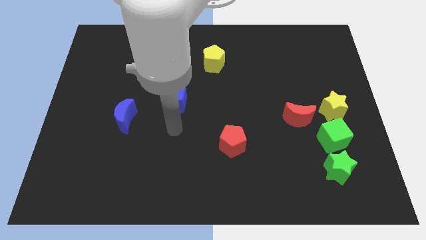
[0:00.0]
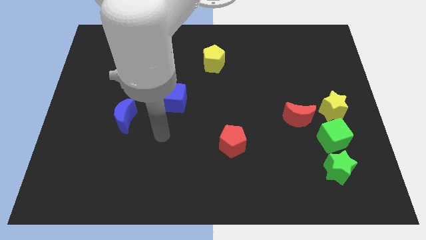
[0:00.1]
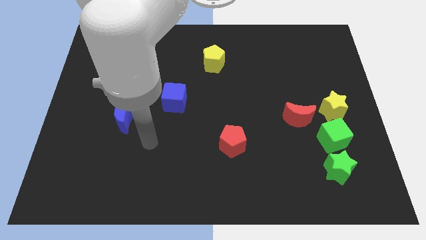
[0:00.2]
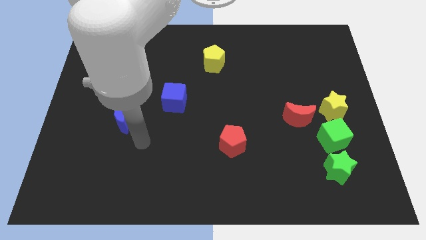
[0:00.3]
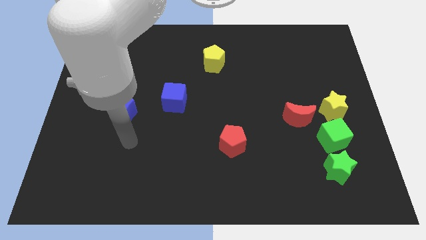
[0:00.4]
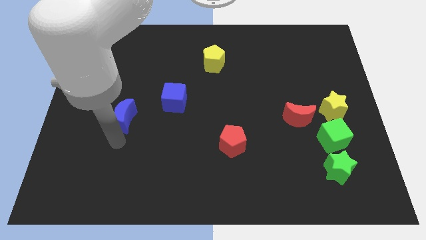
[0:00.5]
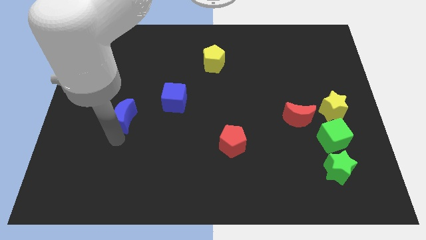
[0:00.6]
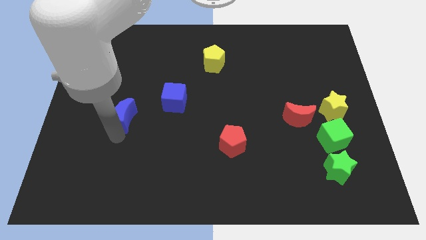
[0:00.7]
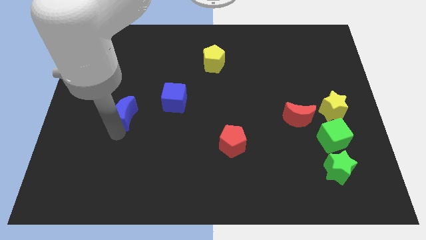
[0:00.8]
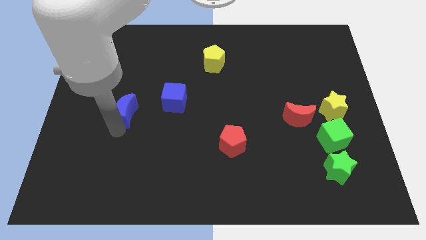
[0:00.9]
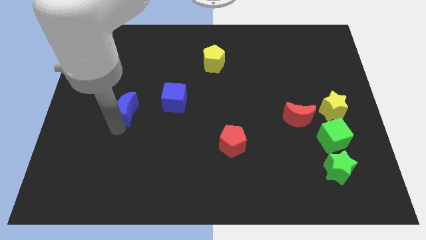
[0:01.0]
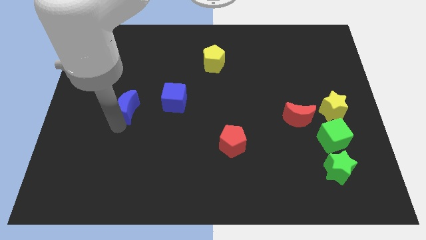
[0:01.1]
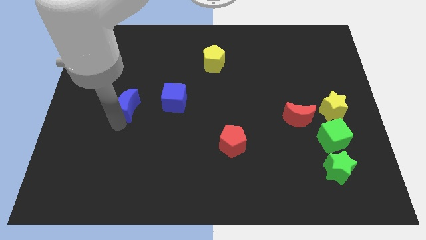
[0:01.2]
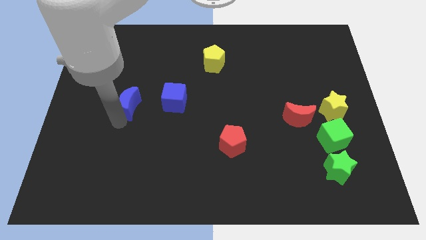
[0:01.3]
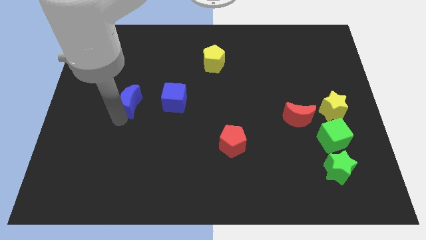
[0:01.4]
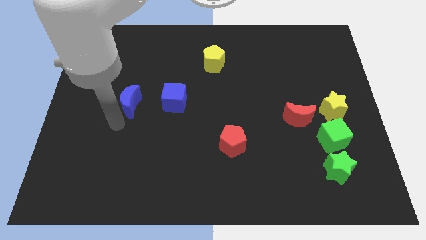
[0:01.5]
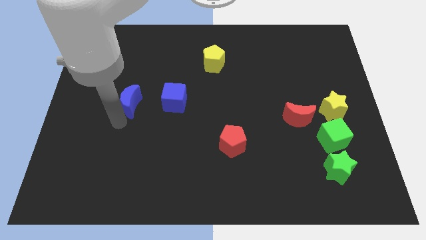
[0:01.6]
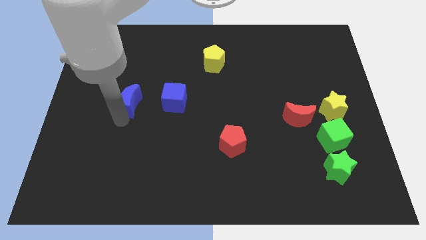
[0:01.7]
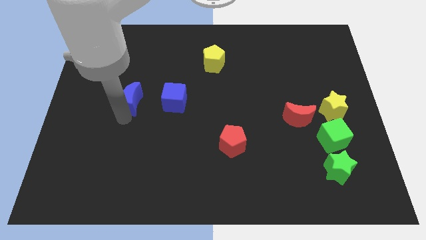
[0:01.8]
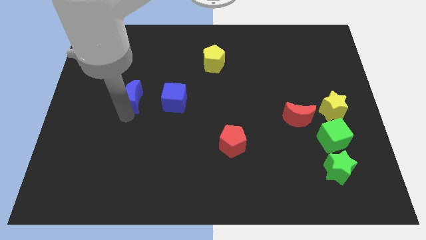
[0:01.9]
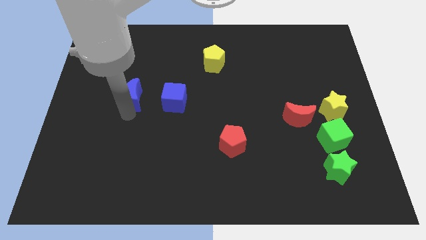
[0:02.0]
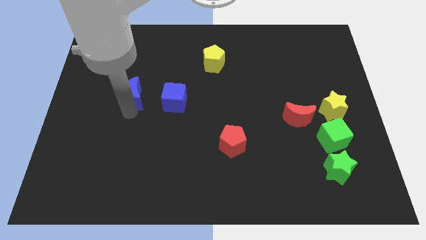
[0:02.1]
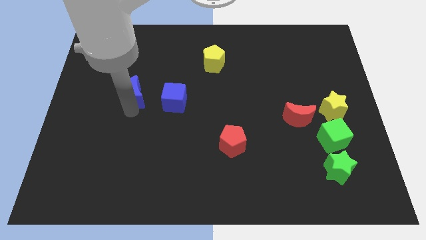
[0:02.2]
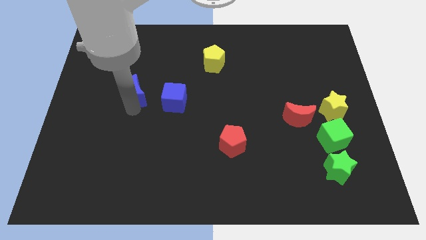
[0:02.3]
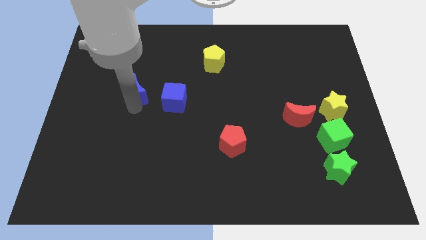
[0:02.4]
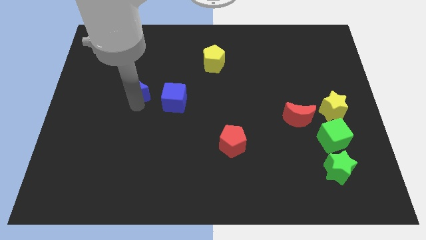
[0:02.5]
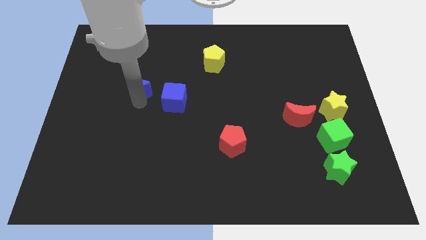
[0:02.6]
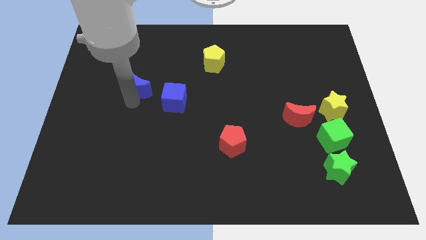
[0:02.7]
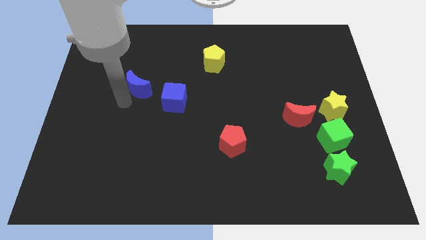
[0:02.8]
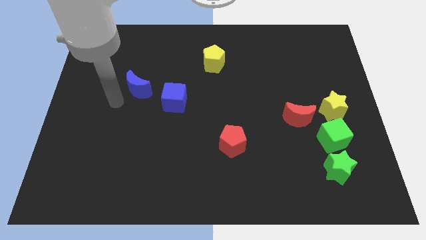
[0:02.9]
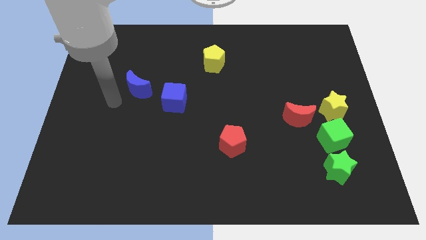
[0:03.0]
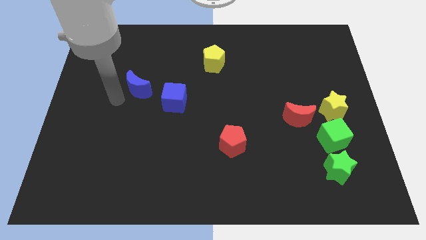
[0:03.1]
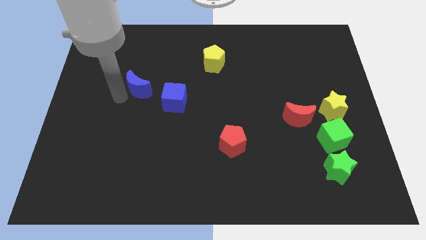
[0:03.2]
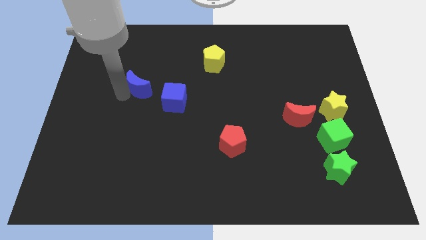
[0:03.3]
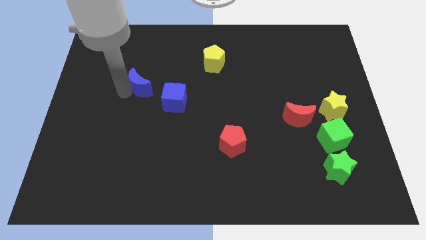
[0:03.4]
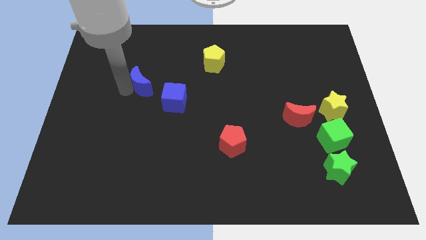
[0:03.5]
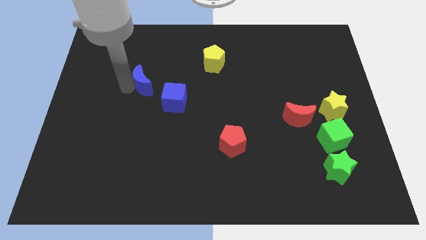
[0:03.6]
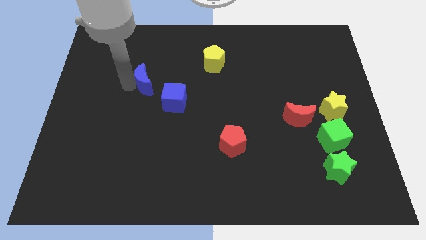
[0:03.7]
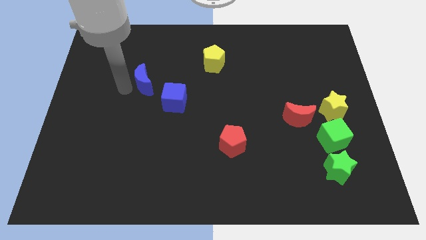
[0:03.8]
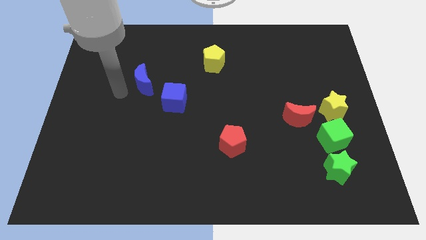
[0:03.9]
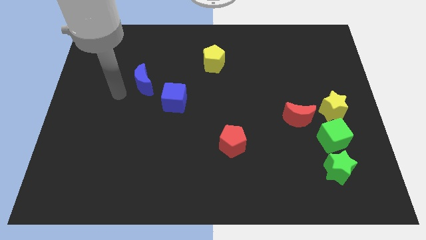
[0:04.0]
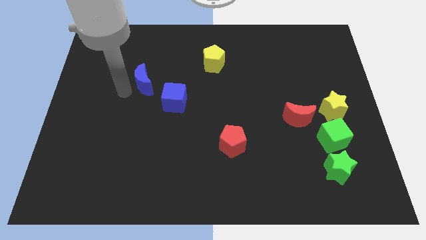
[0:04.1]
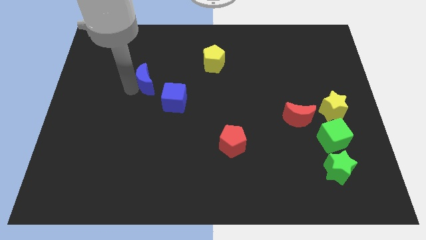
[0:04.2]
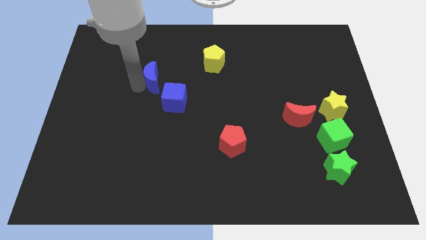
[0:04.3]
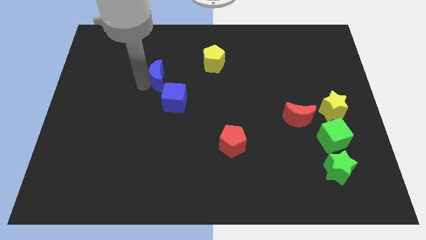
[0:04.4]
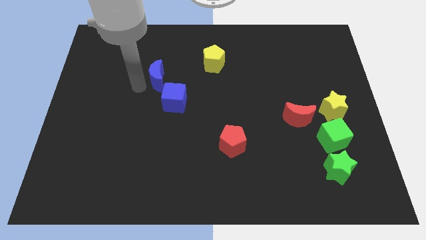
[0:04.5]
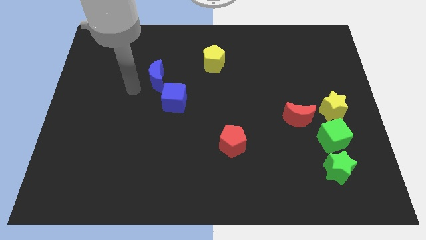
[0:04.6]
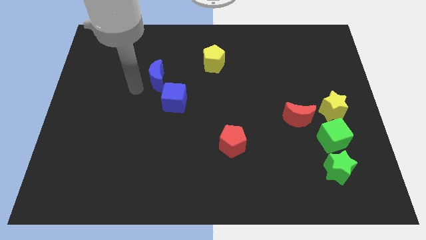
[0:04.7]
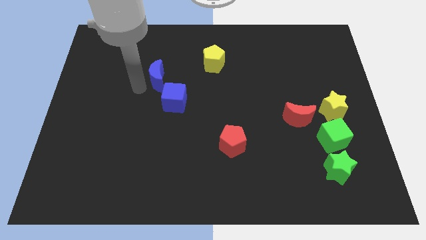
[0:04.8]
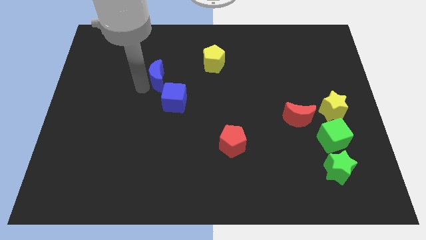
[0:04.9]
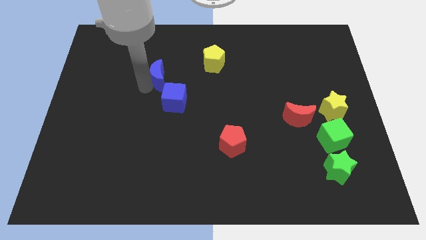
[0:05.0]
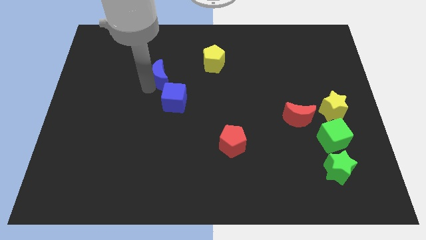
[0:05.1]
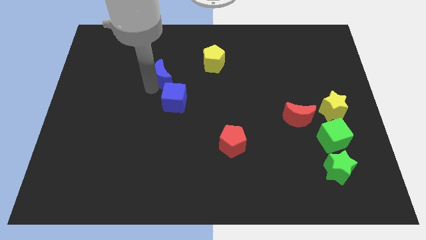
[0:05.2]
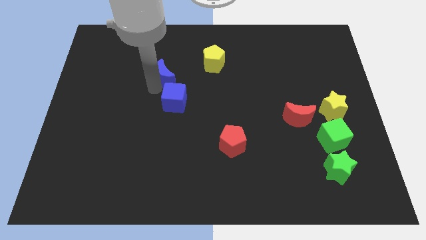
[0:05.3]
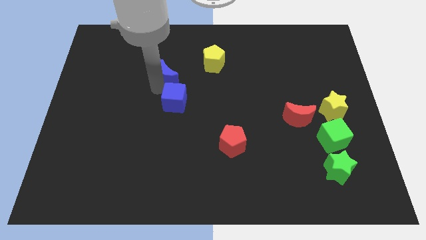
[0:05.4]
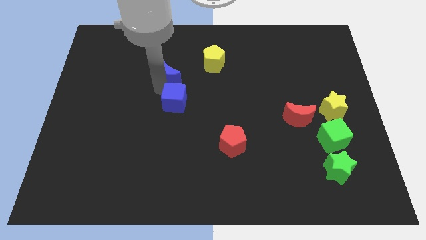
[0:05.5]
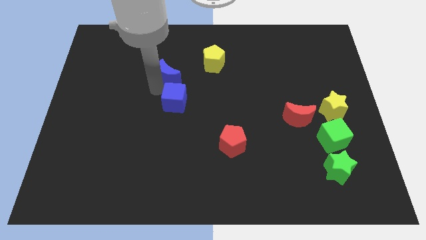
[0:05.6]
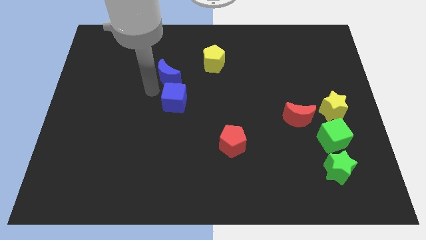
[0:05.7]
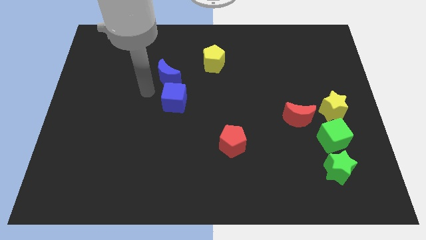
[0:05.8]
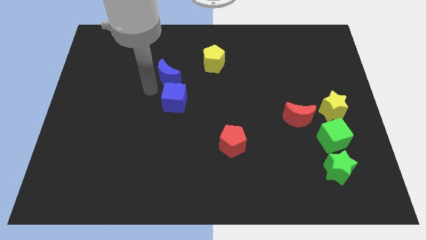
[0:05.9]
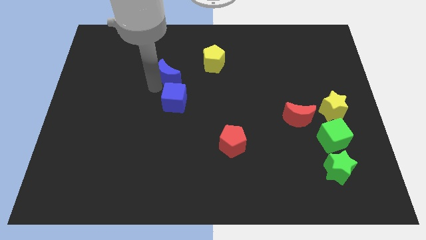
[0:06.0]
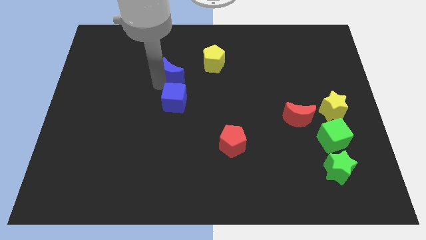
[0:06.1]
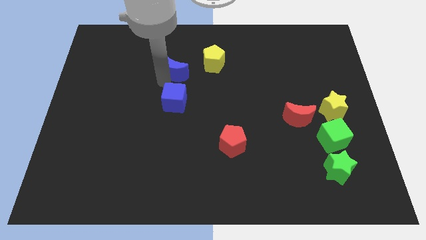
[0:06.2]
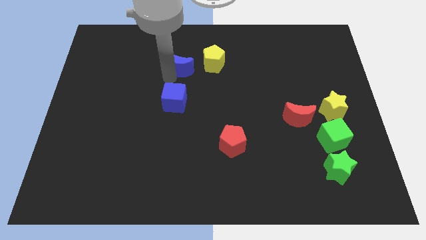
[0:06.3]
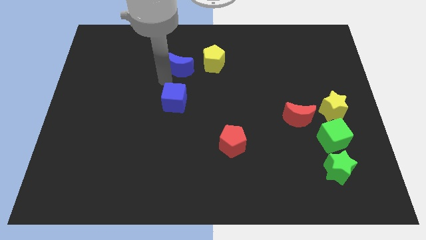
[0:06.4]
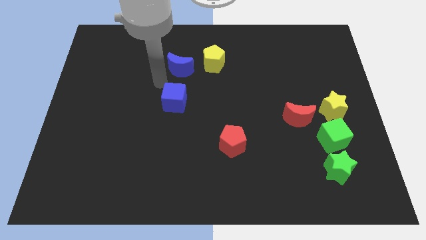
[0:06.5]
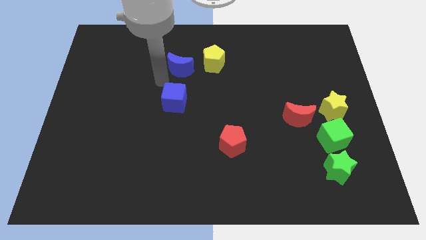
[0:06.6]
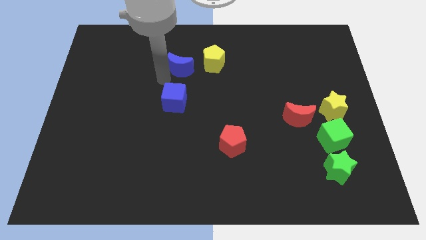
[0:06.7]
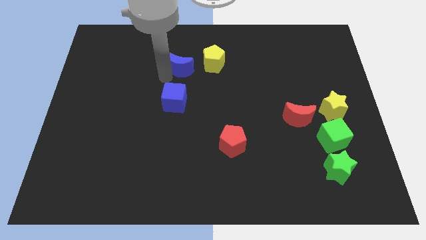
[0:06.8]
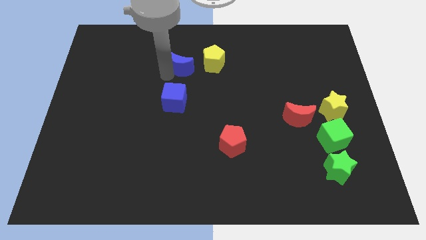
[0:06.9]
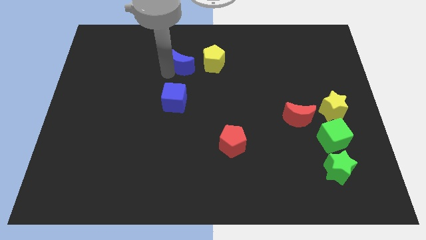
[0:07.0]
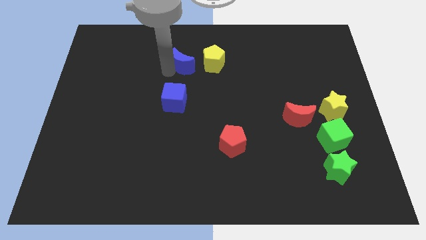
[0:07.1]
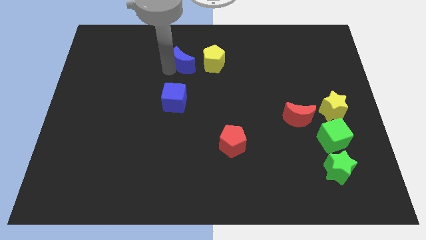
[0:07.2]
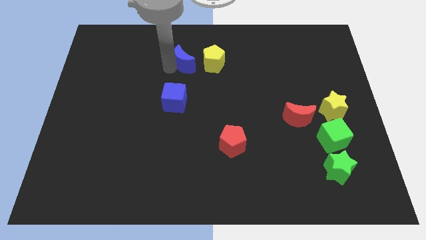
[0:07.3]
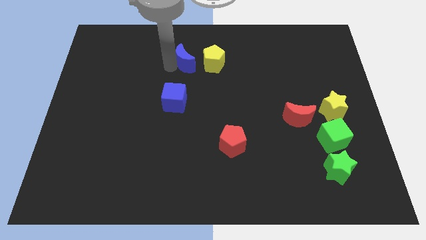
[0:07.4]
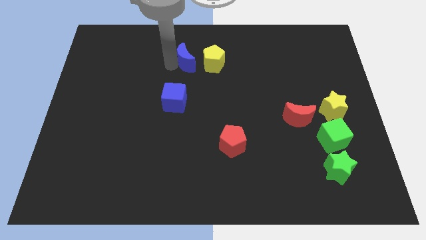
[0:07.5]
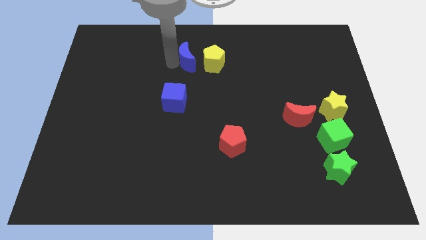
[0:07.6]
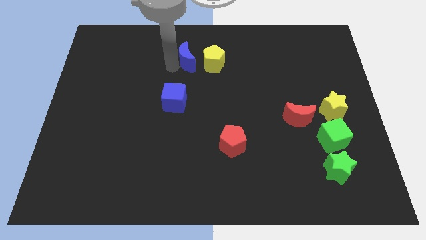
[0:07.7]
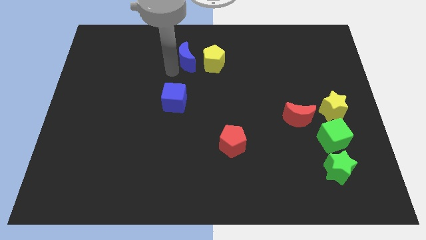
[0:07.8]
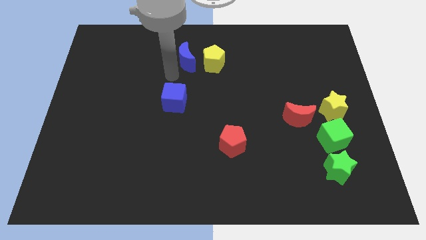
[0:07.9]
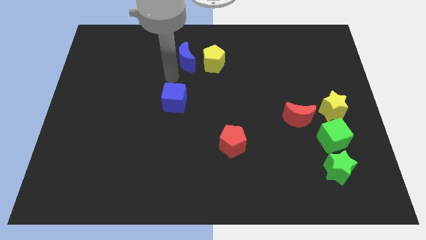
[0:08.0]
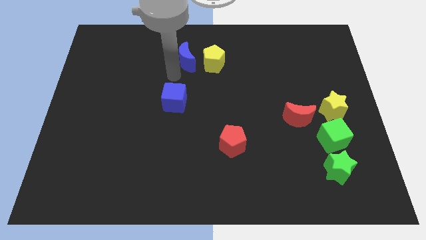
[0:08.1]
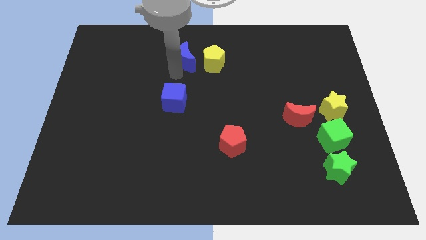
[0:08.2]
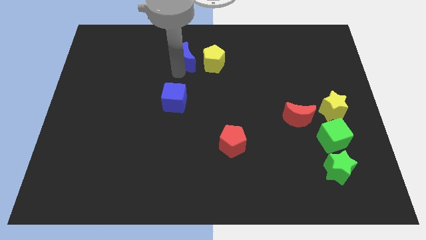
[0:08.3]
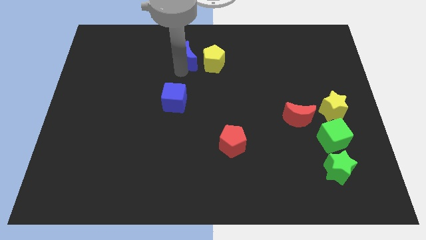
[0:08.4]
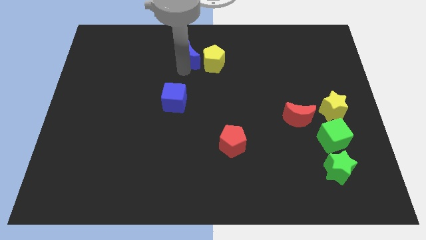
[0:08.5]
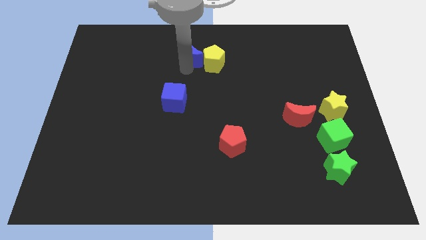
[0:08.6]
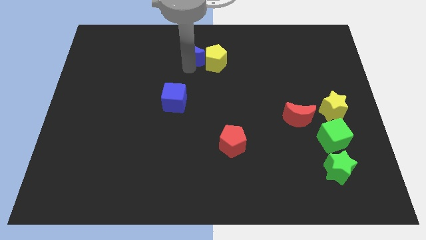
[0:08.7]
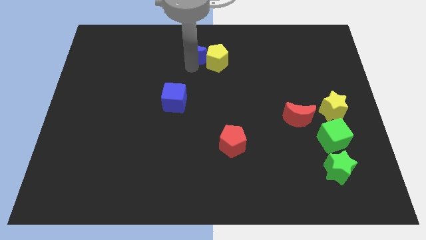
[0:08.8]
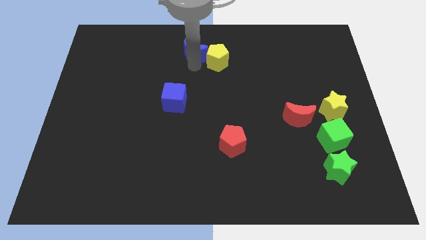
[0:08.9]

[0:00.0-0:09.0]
slide the blue moon to the top side
